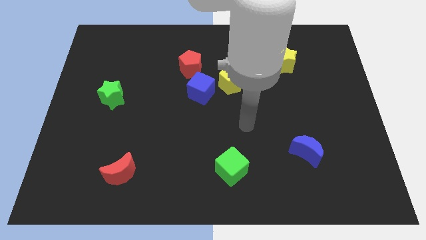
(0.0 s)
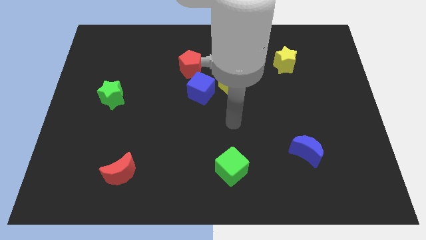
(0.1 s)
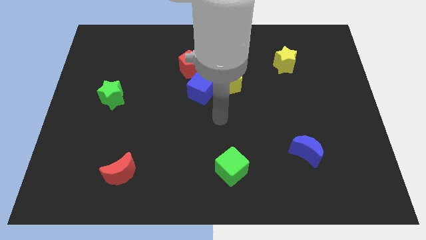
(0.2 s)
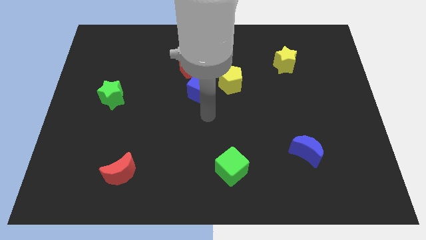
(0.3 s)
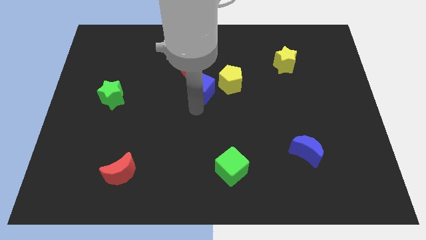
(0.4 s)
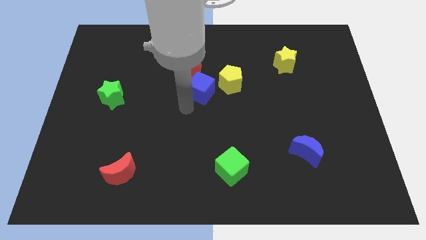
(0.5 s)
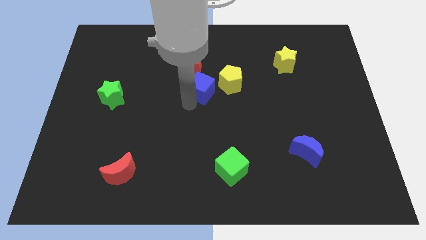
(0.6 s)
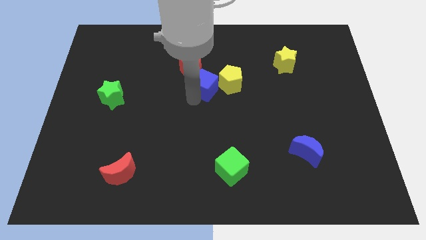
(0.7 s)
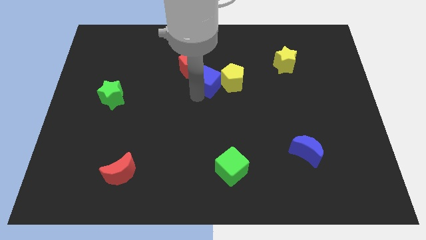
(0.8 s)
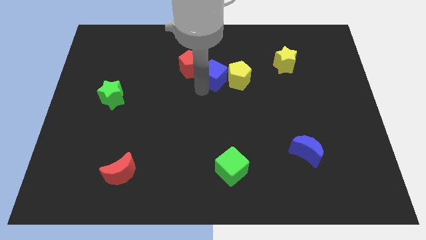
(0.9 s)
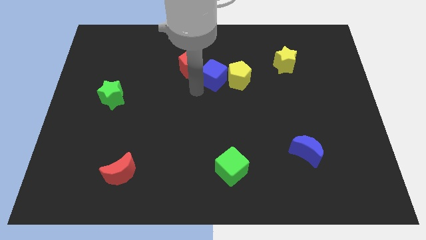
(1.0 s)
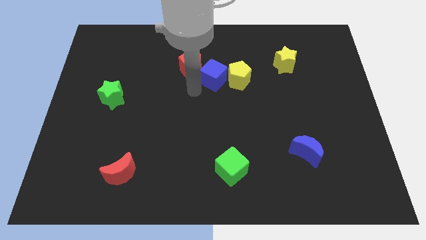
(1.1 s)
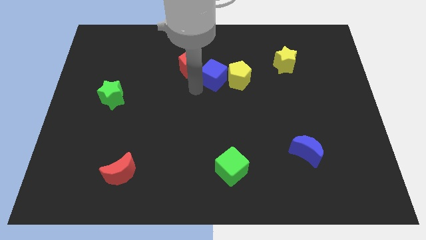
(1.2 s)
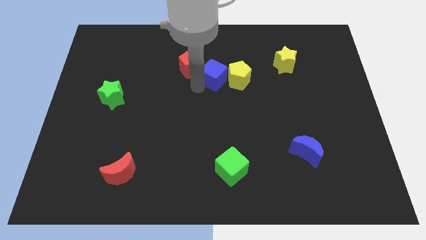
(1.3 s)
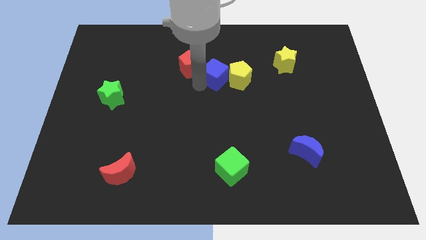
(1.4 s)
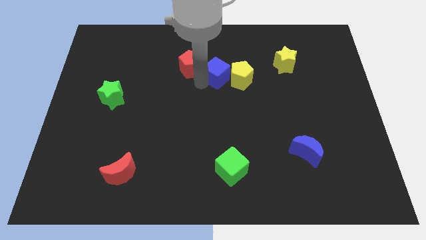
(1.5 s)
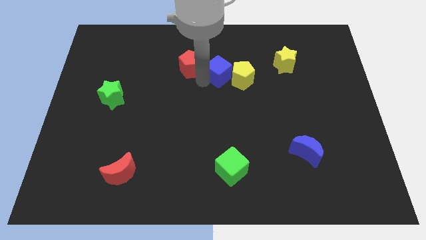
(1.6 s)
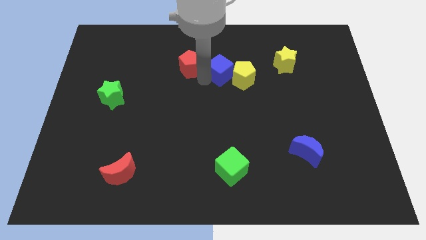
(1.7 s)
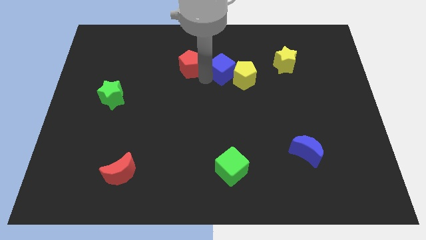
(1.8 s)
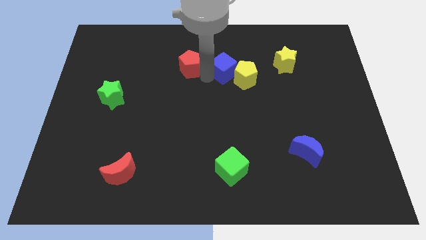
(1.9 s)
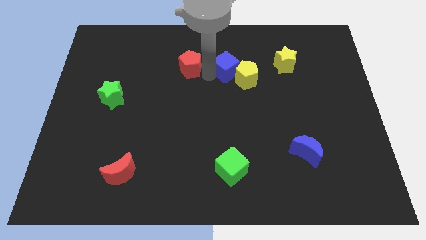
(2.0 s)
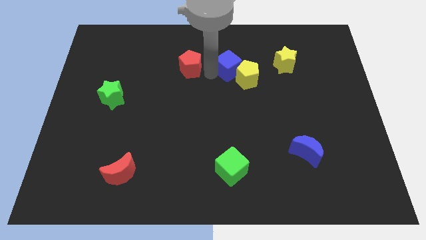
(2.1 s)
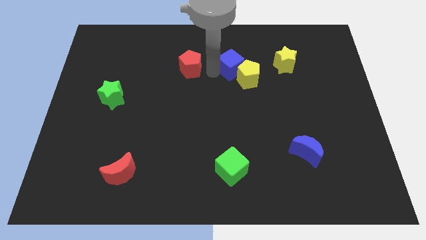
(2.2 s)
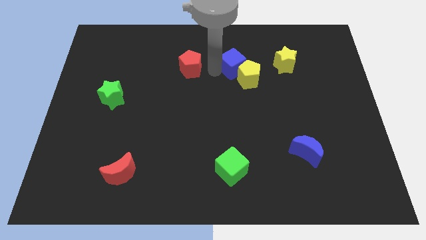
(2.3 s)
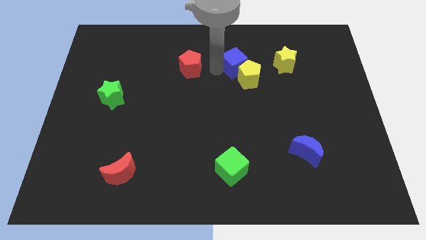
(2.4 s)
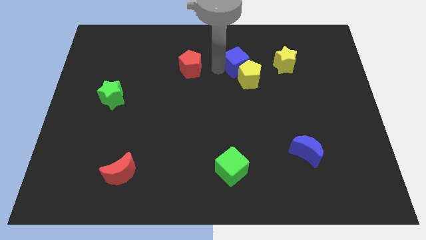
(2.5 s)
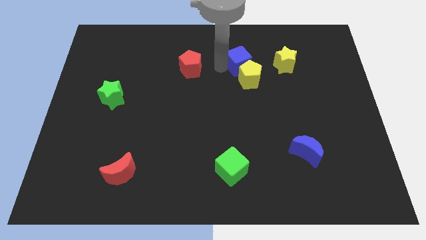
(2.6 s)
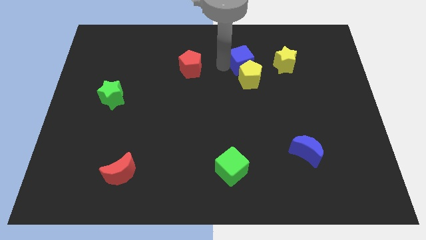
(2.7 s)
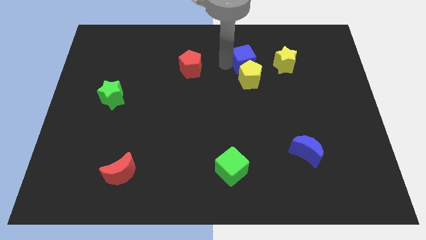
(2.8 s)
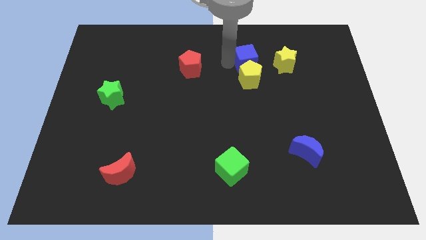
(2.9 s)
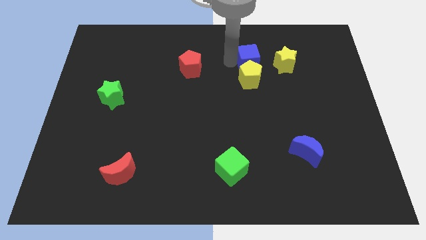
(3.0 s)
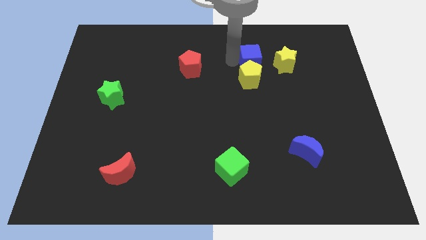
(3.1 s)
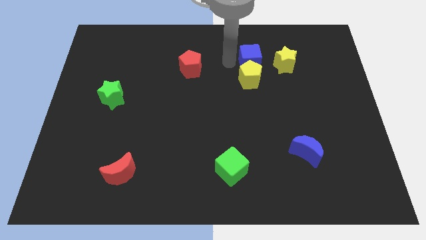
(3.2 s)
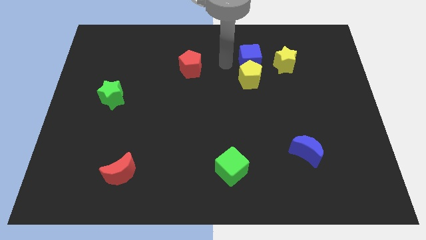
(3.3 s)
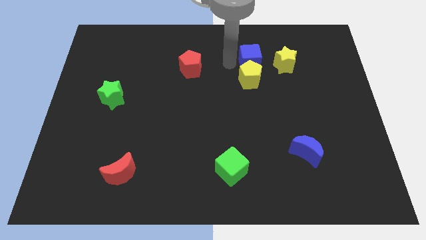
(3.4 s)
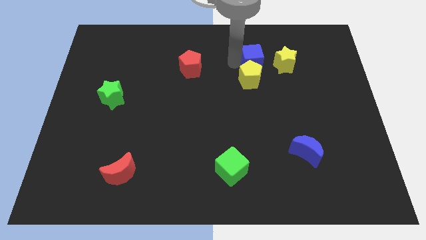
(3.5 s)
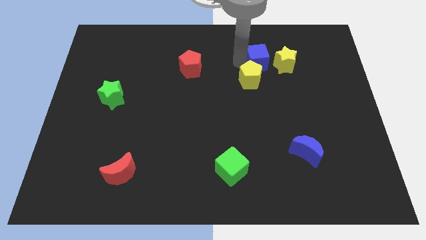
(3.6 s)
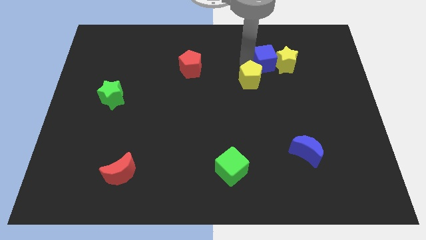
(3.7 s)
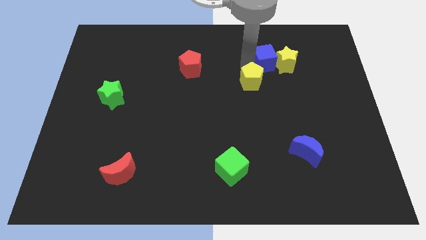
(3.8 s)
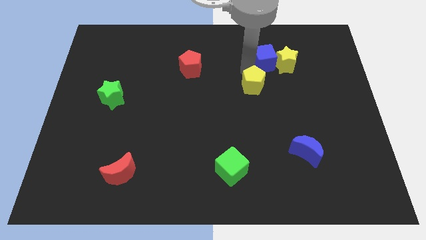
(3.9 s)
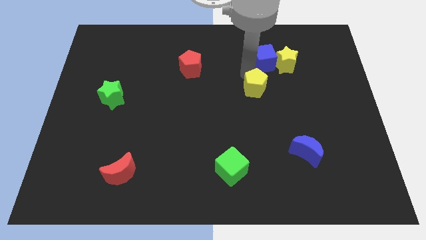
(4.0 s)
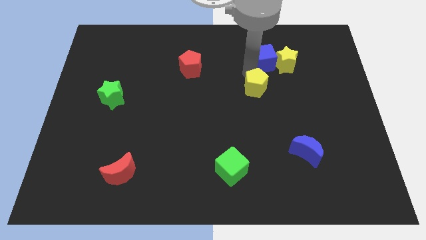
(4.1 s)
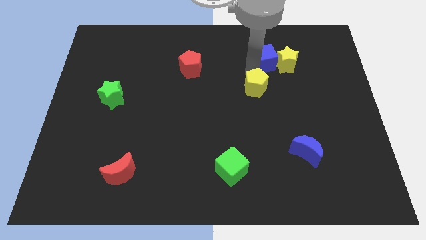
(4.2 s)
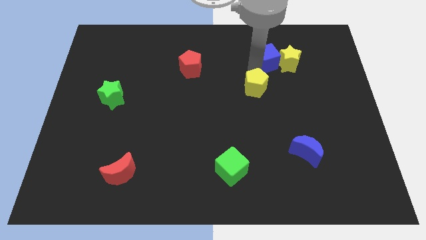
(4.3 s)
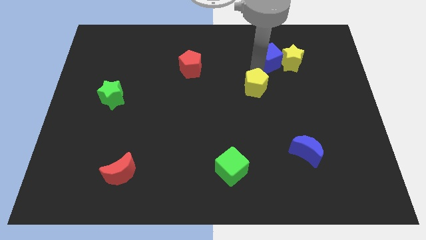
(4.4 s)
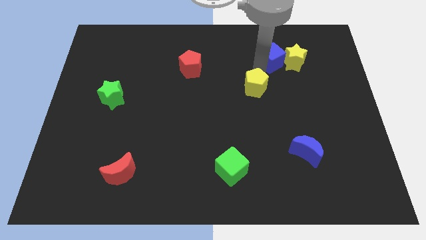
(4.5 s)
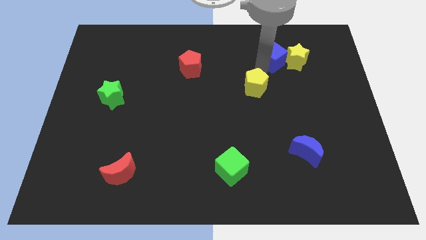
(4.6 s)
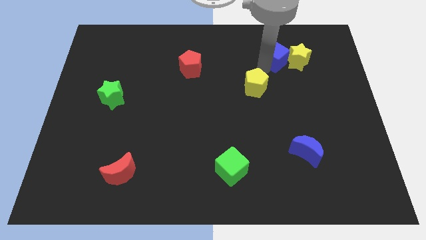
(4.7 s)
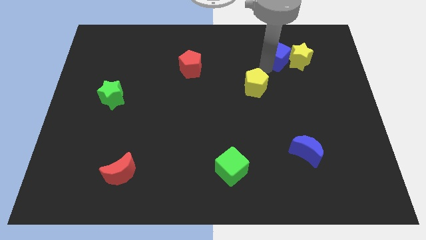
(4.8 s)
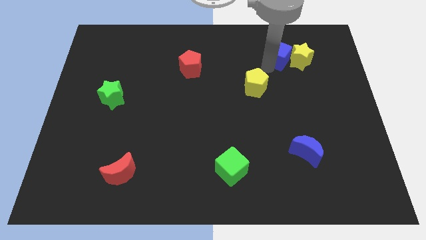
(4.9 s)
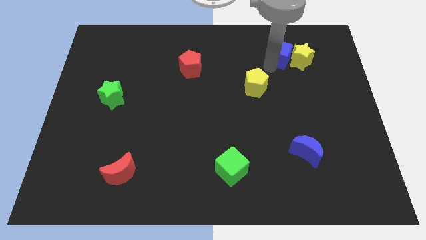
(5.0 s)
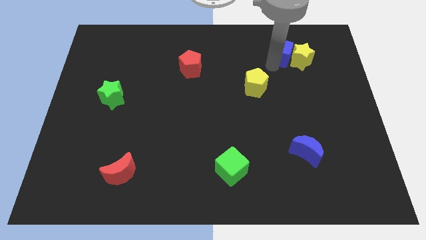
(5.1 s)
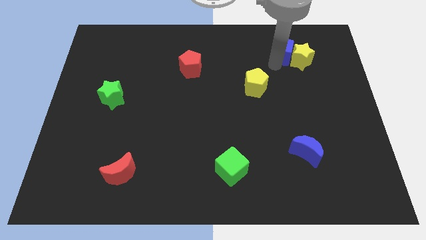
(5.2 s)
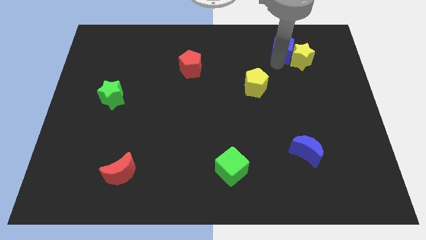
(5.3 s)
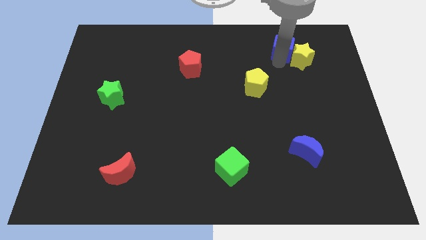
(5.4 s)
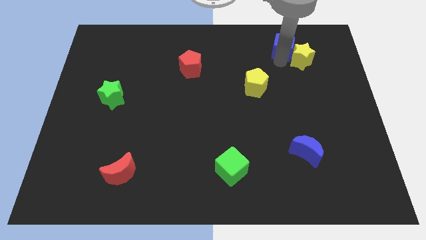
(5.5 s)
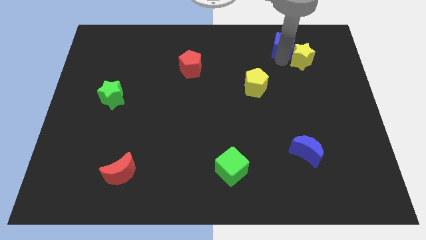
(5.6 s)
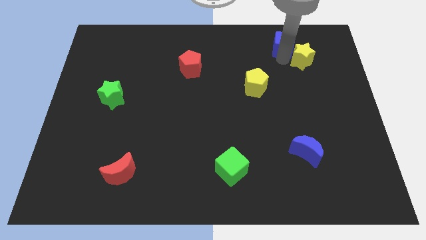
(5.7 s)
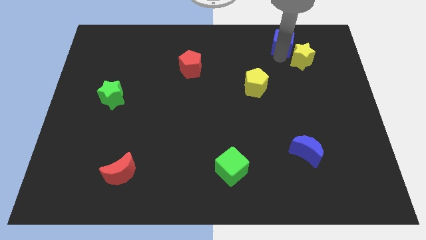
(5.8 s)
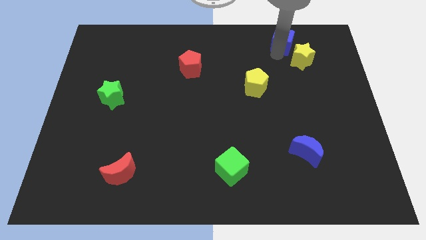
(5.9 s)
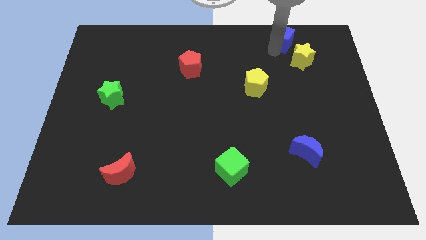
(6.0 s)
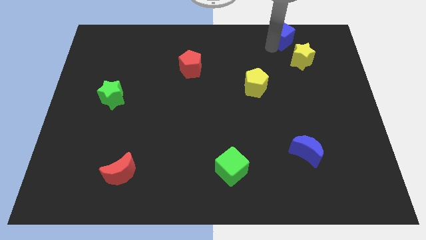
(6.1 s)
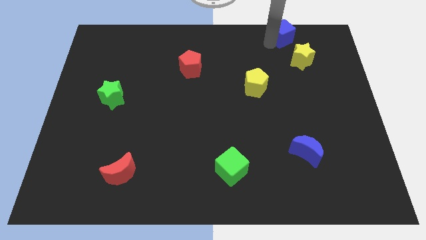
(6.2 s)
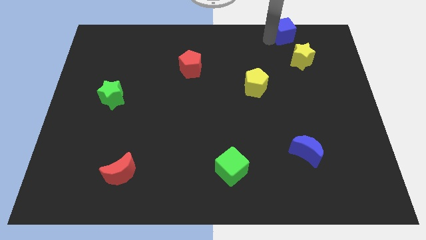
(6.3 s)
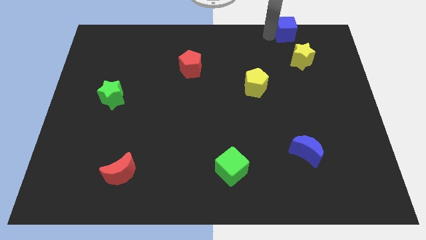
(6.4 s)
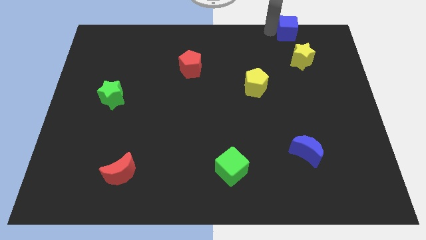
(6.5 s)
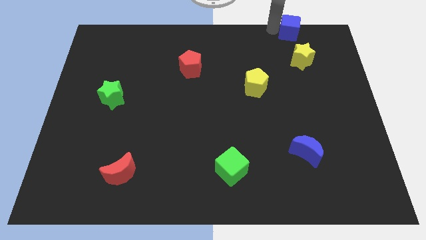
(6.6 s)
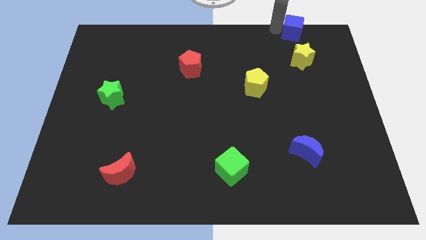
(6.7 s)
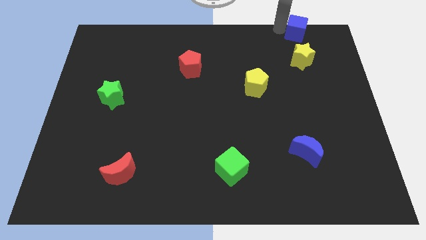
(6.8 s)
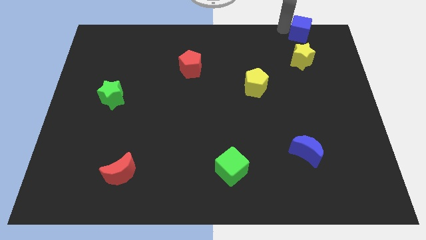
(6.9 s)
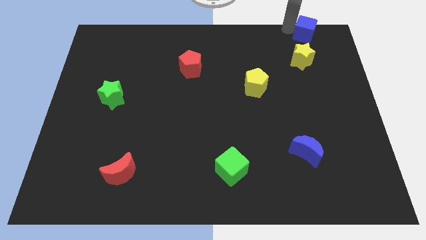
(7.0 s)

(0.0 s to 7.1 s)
push the blue cube to the top right of the board
